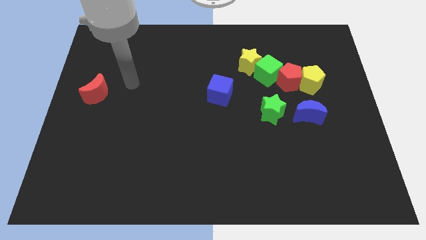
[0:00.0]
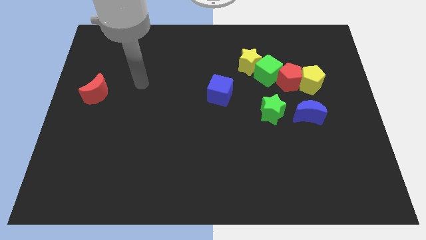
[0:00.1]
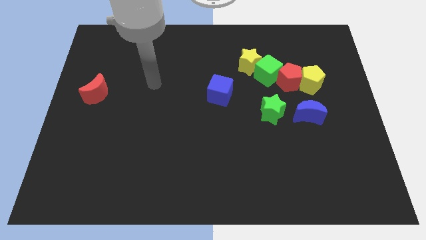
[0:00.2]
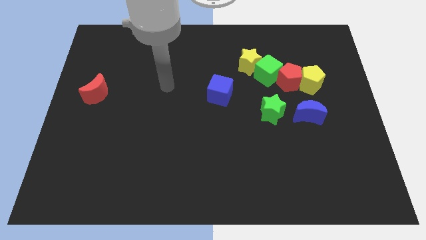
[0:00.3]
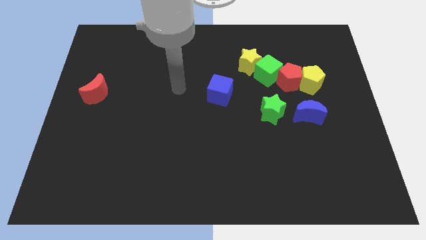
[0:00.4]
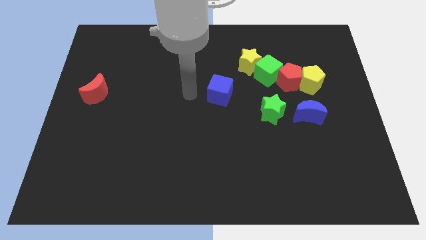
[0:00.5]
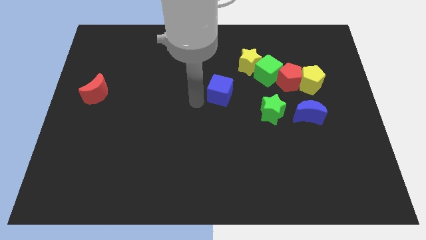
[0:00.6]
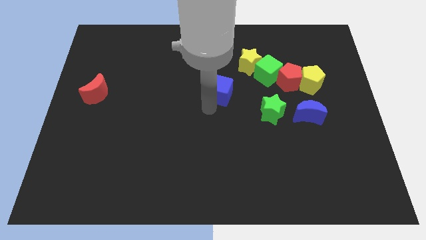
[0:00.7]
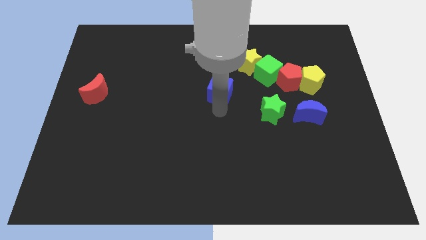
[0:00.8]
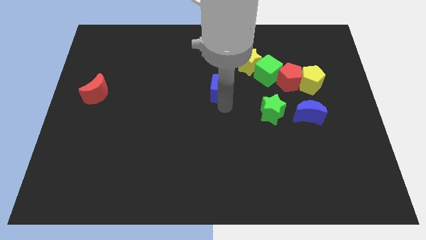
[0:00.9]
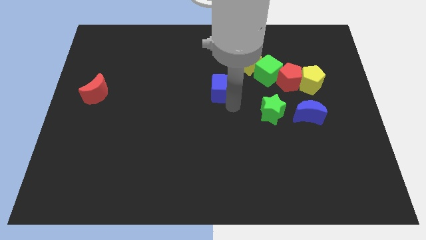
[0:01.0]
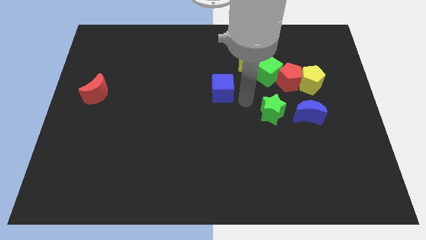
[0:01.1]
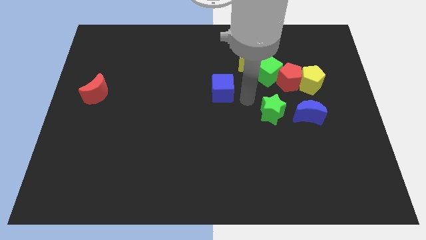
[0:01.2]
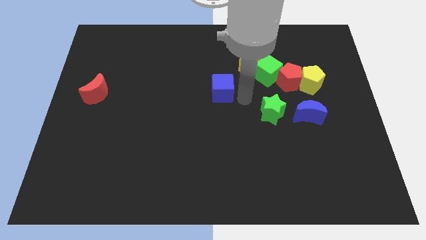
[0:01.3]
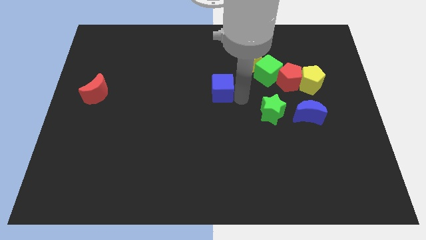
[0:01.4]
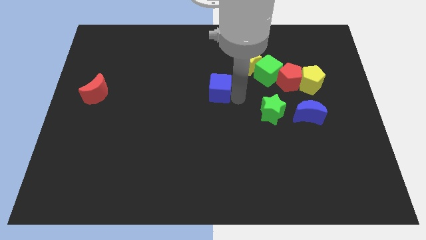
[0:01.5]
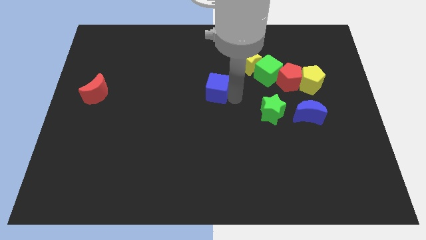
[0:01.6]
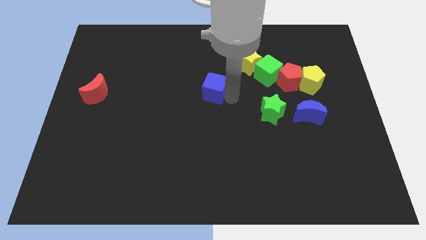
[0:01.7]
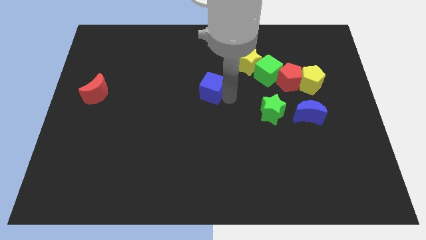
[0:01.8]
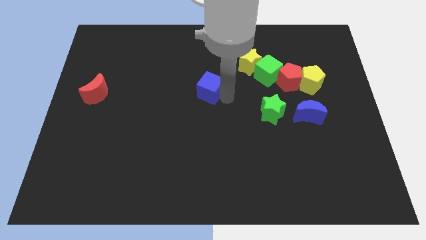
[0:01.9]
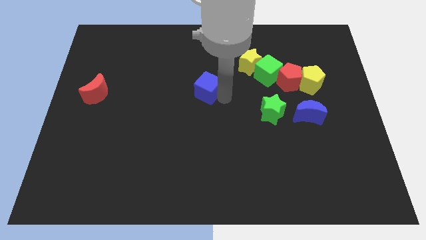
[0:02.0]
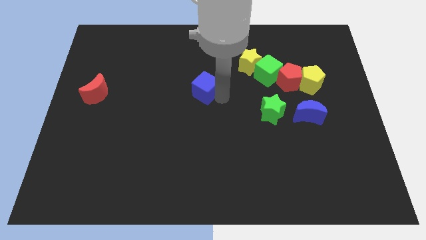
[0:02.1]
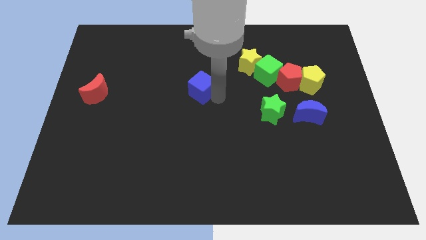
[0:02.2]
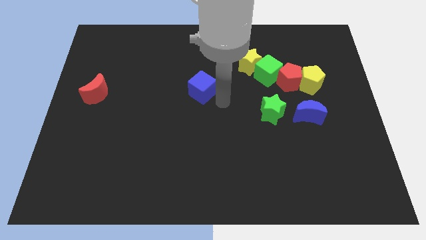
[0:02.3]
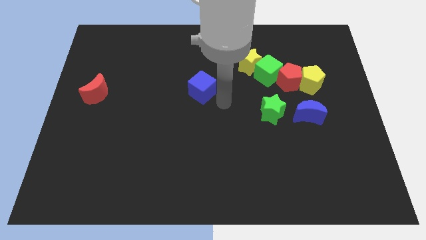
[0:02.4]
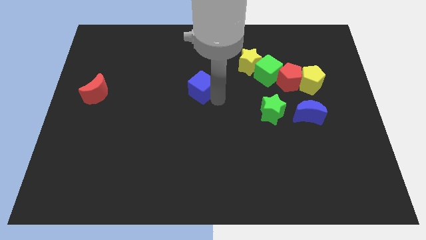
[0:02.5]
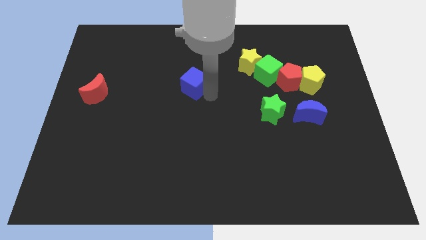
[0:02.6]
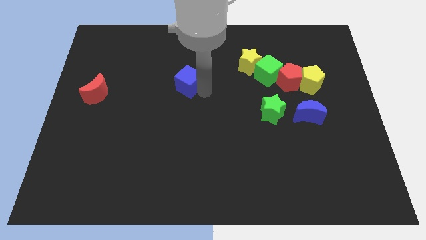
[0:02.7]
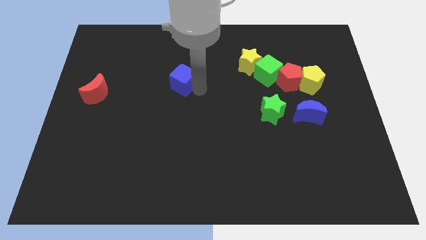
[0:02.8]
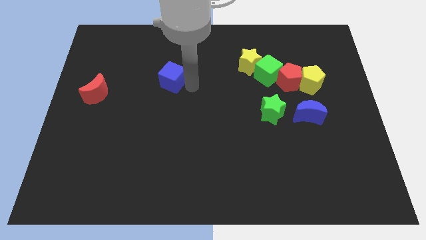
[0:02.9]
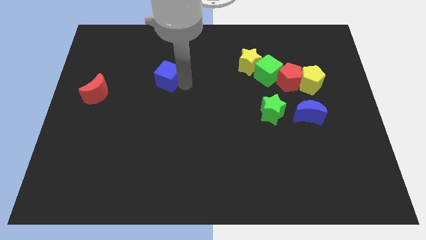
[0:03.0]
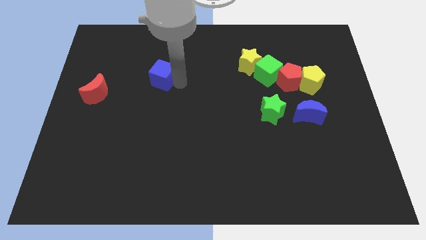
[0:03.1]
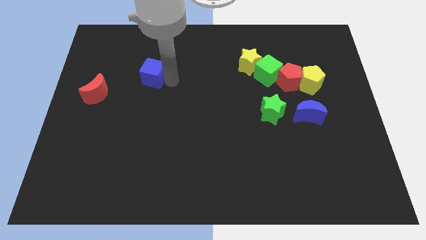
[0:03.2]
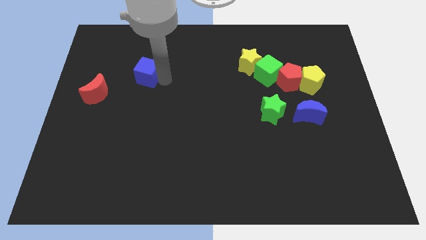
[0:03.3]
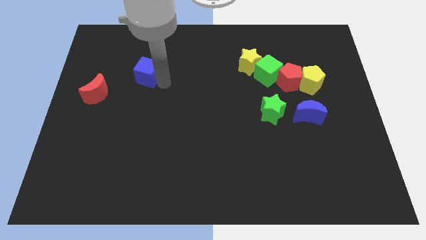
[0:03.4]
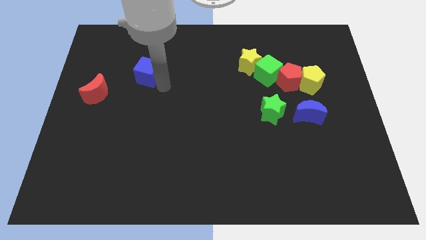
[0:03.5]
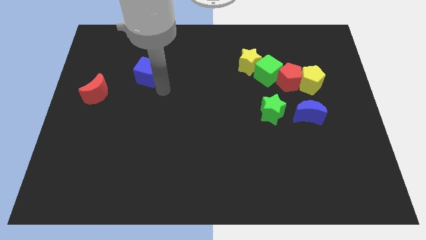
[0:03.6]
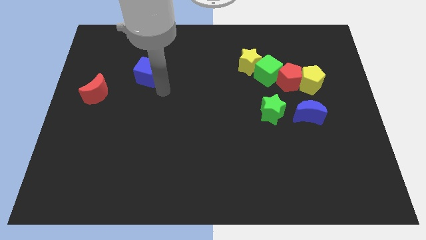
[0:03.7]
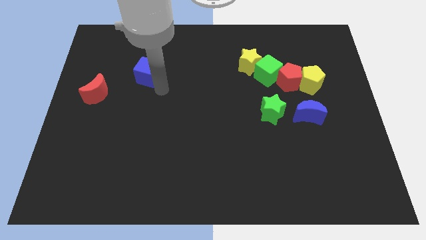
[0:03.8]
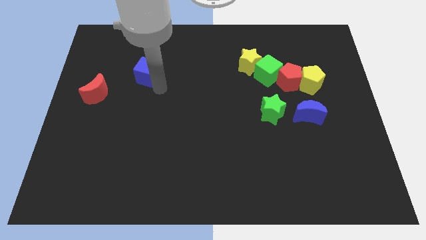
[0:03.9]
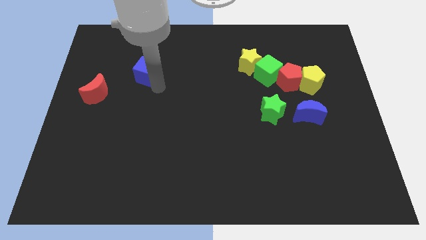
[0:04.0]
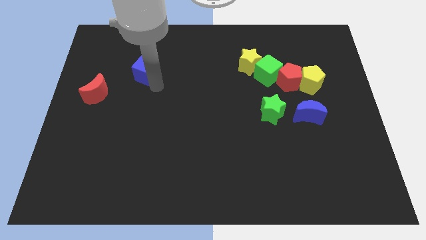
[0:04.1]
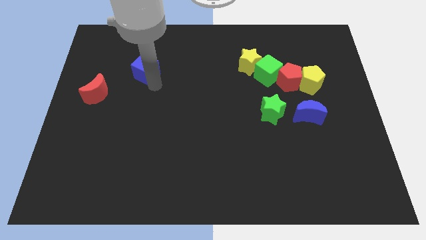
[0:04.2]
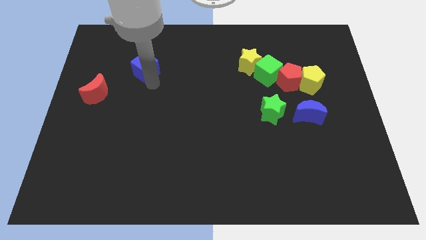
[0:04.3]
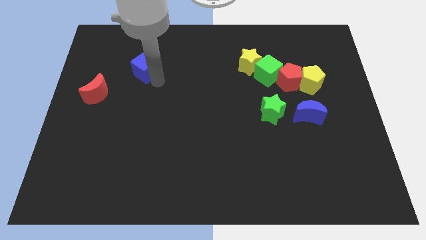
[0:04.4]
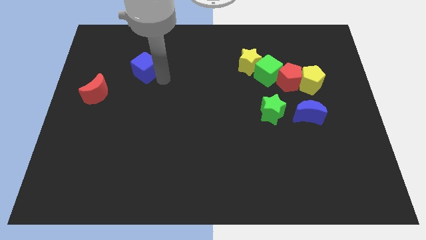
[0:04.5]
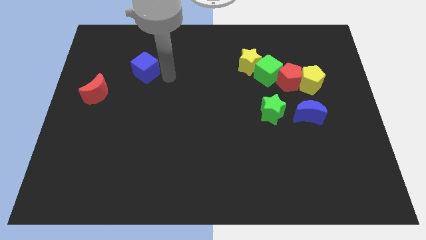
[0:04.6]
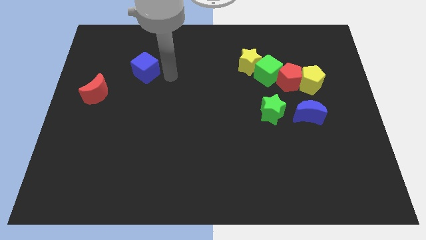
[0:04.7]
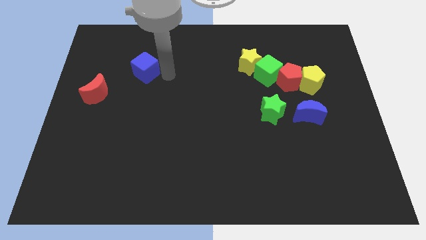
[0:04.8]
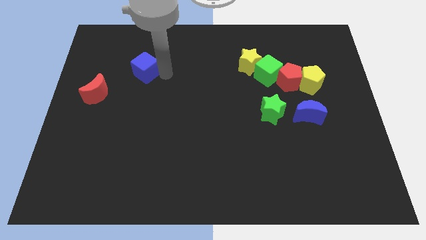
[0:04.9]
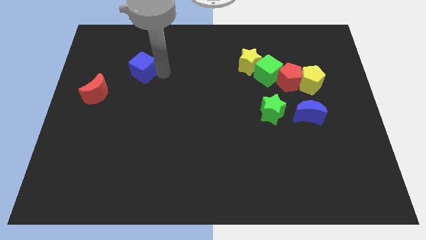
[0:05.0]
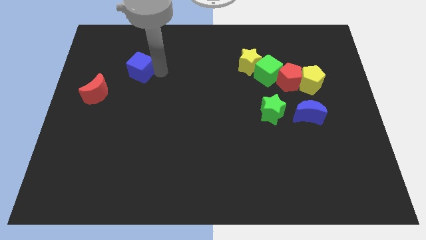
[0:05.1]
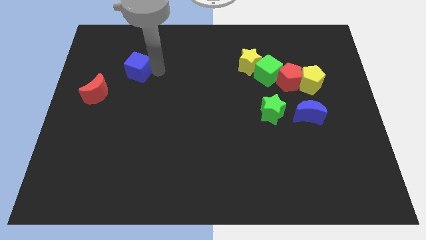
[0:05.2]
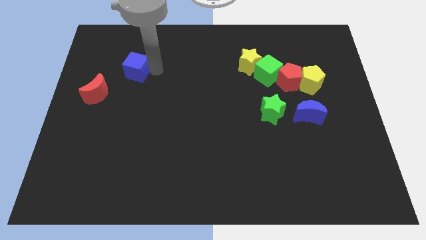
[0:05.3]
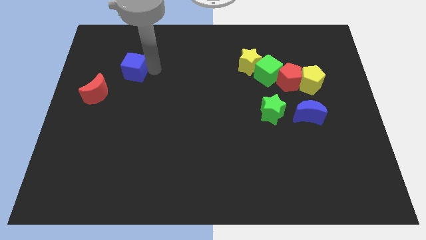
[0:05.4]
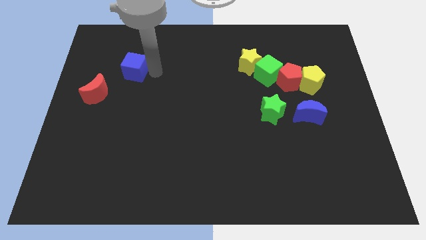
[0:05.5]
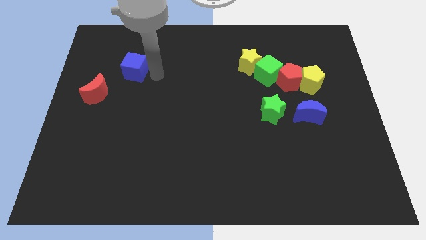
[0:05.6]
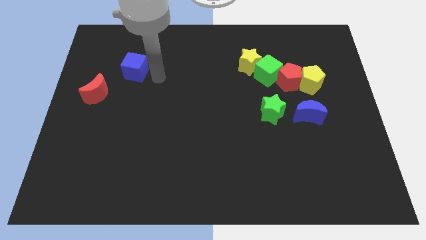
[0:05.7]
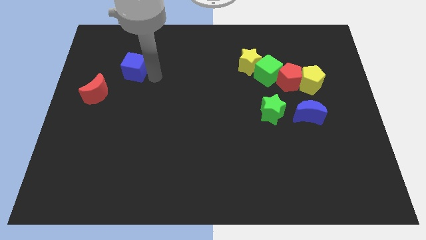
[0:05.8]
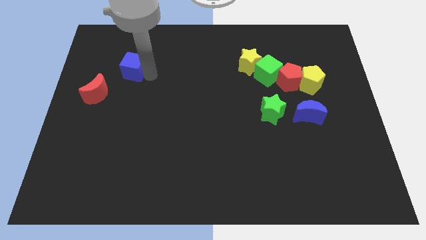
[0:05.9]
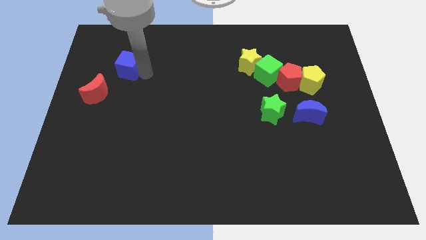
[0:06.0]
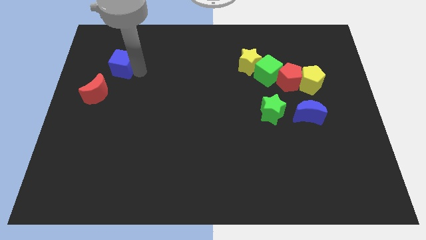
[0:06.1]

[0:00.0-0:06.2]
move the blue cube to the top side of the red moon

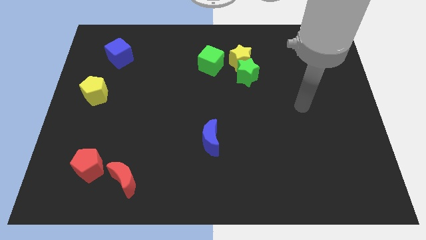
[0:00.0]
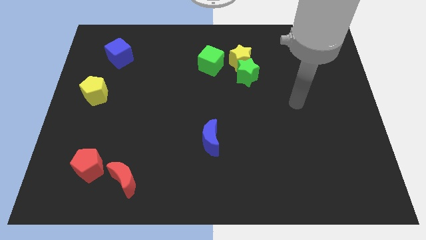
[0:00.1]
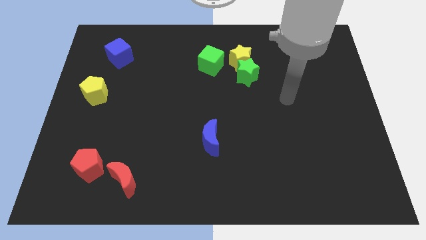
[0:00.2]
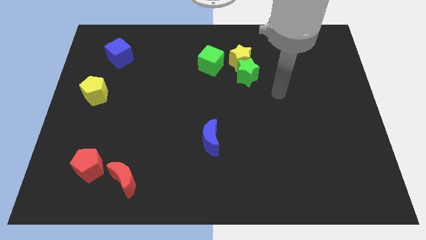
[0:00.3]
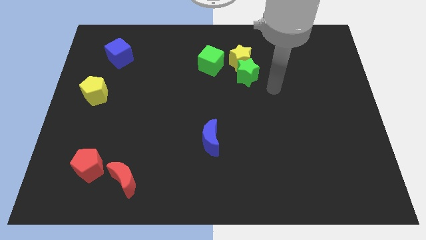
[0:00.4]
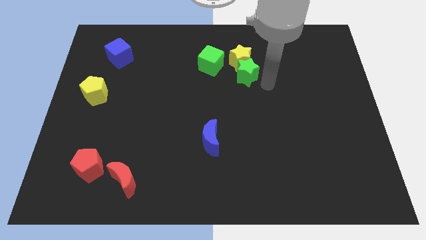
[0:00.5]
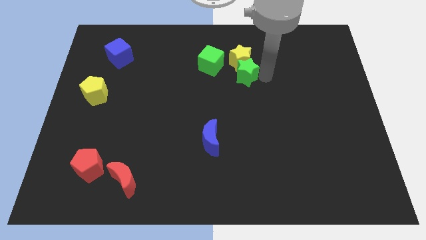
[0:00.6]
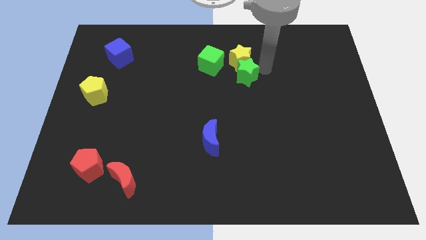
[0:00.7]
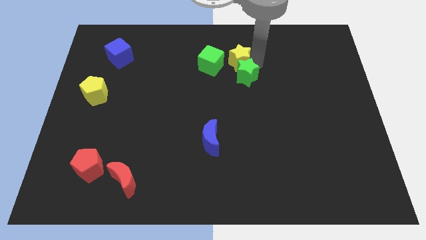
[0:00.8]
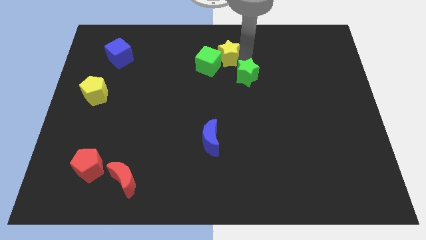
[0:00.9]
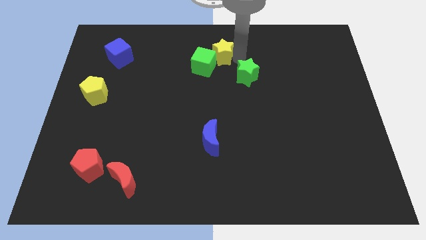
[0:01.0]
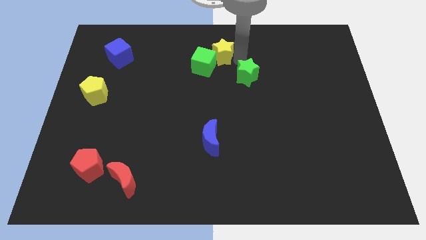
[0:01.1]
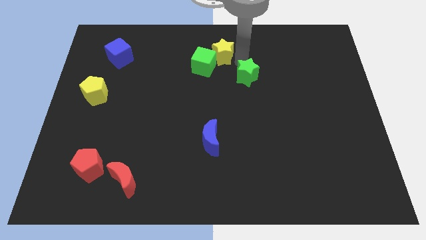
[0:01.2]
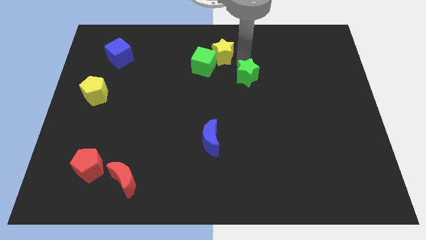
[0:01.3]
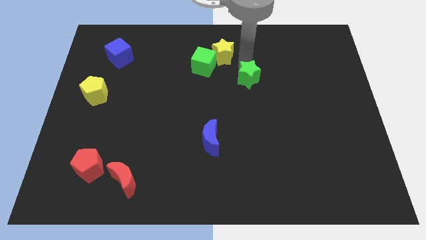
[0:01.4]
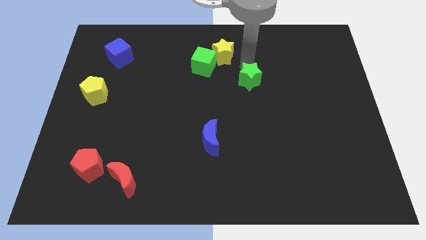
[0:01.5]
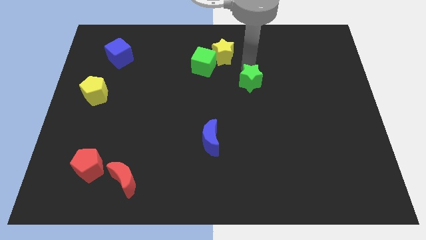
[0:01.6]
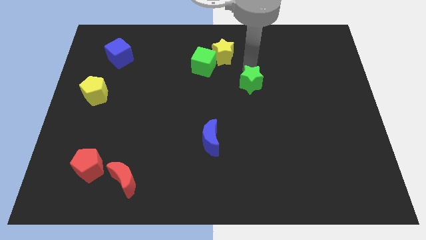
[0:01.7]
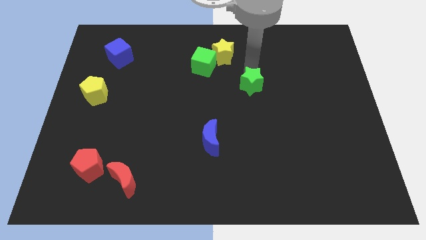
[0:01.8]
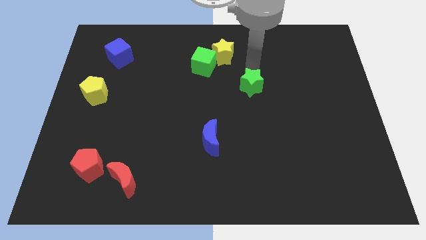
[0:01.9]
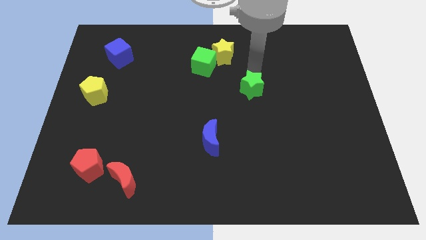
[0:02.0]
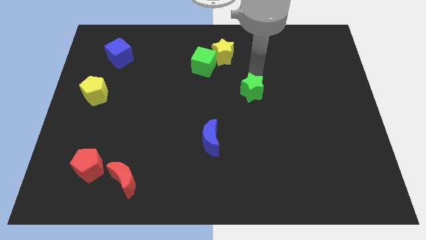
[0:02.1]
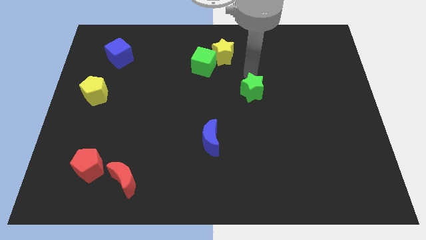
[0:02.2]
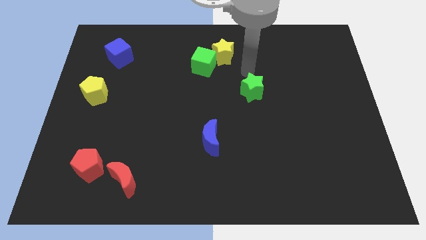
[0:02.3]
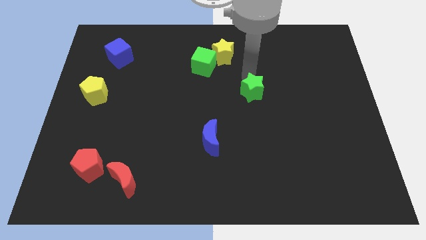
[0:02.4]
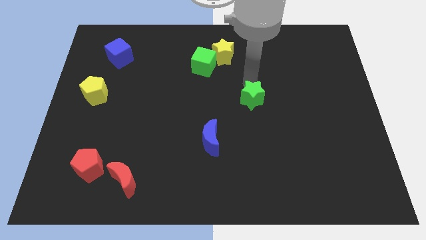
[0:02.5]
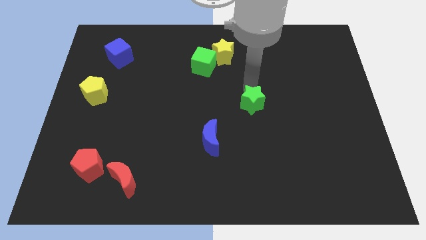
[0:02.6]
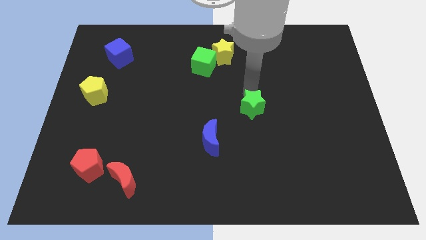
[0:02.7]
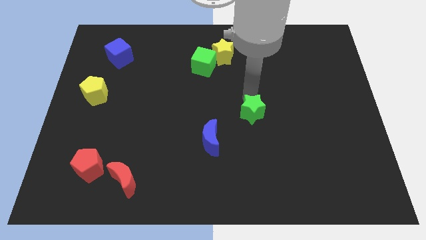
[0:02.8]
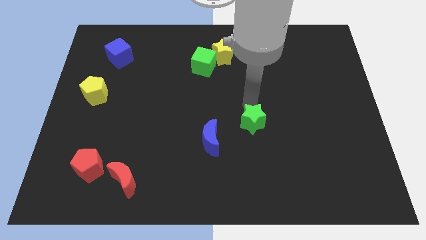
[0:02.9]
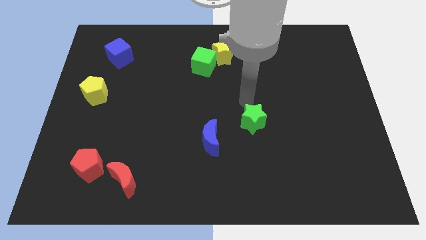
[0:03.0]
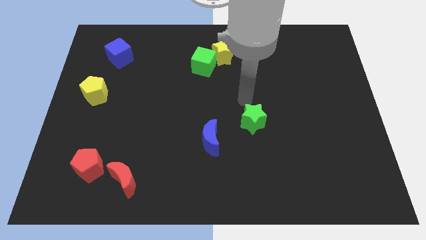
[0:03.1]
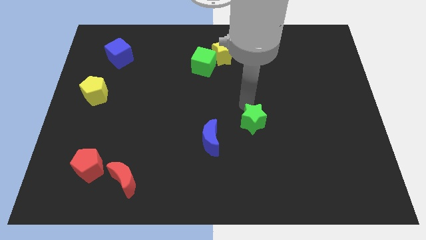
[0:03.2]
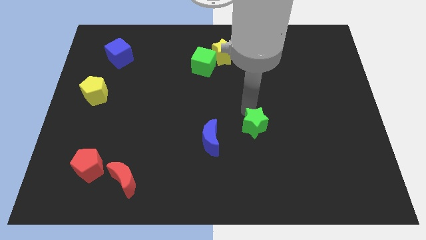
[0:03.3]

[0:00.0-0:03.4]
put the green star right of the blue moon
